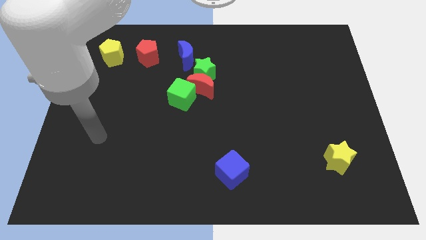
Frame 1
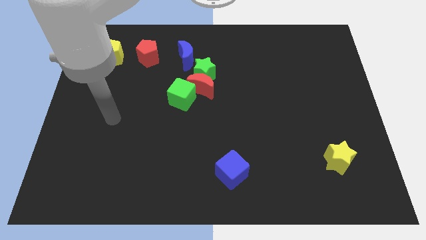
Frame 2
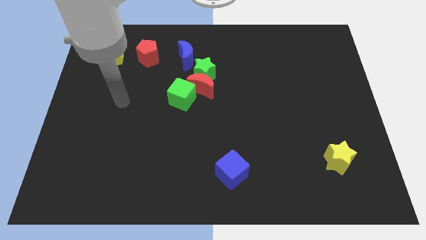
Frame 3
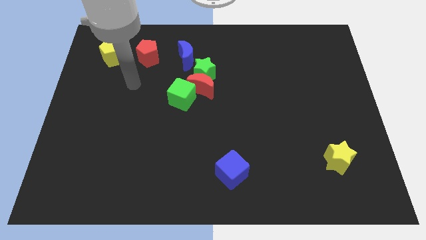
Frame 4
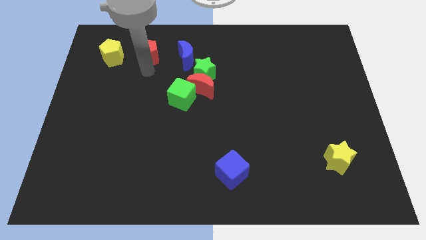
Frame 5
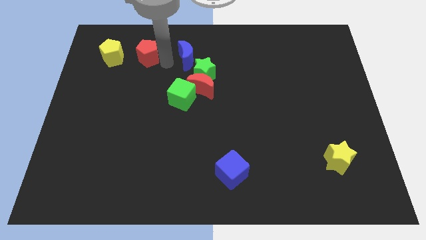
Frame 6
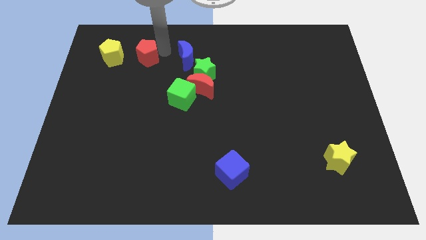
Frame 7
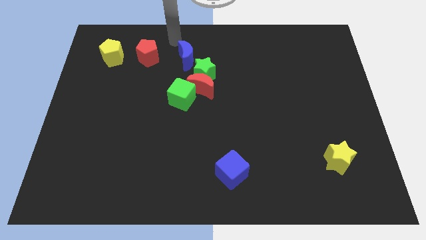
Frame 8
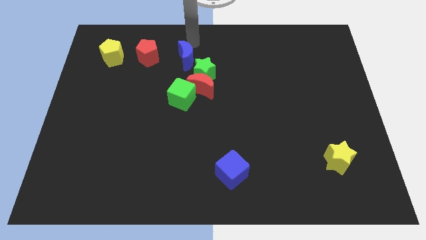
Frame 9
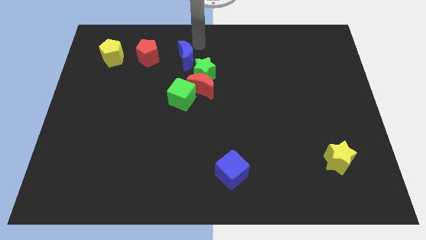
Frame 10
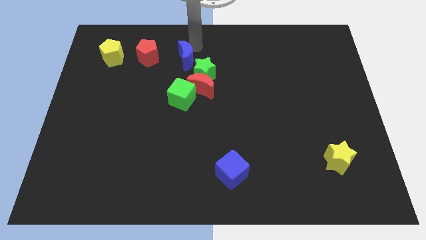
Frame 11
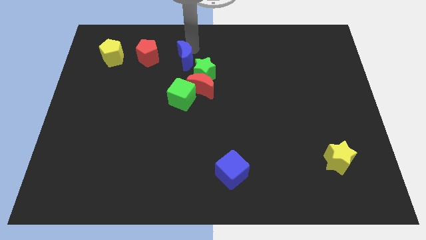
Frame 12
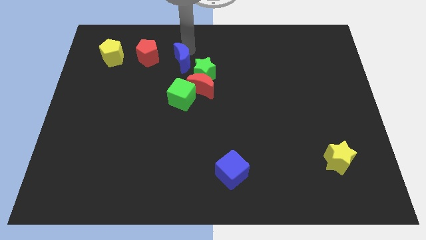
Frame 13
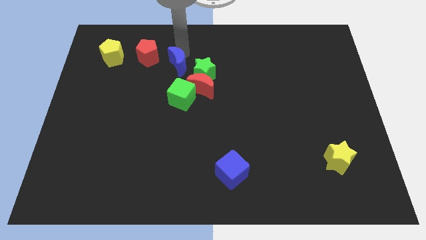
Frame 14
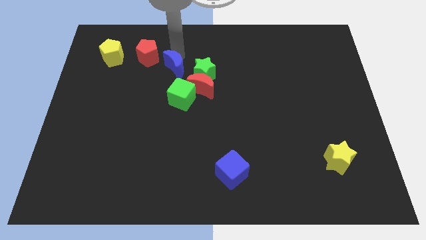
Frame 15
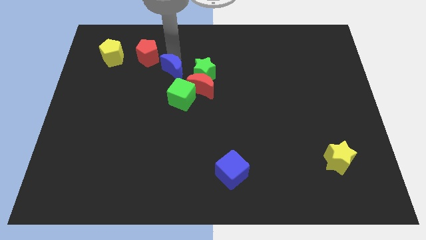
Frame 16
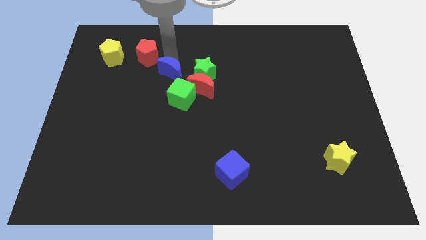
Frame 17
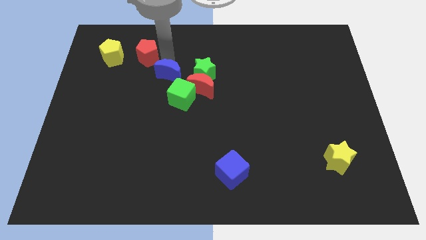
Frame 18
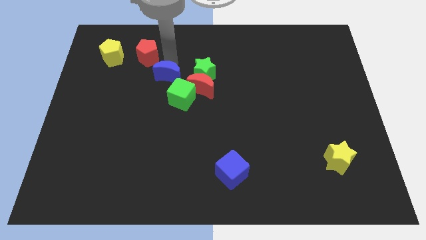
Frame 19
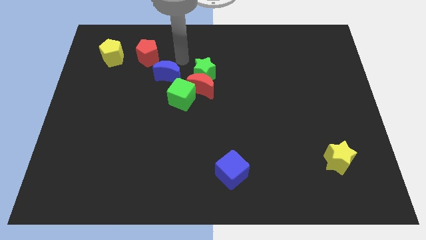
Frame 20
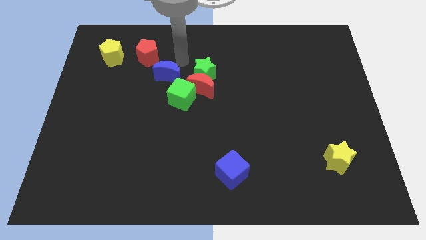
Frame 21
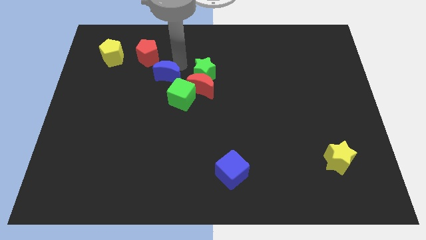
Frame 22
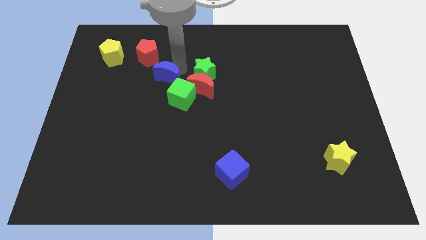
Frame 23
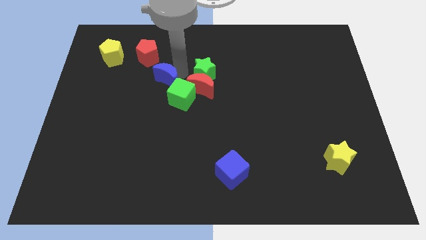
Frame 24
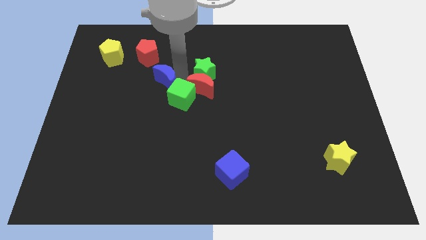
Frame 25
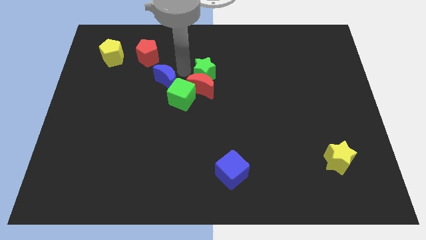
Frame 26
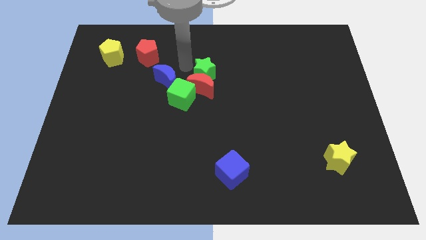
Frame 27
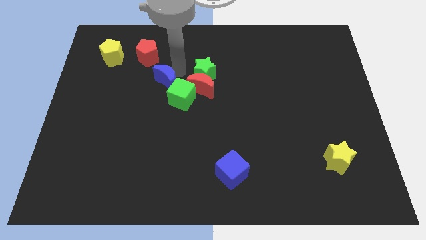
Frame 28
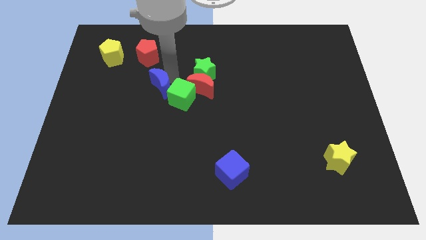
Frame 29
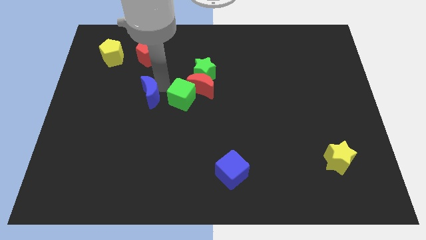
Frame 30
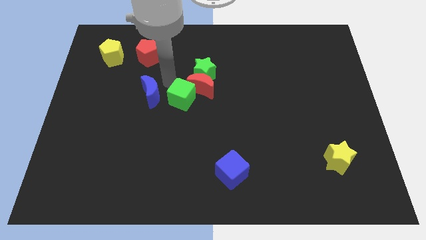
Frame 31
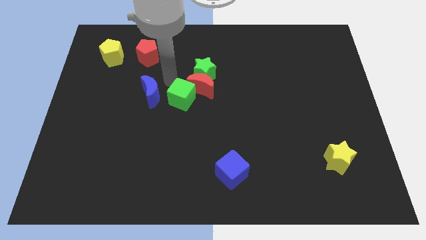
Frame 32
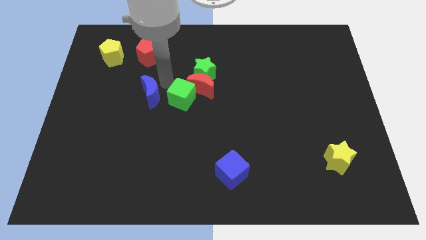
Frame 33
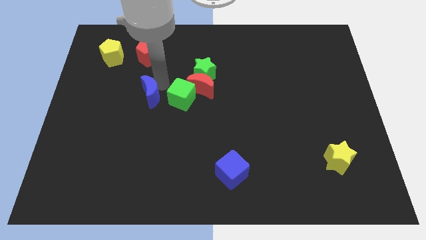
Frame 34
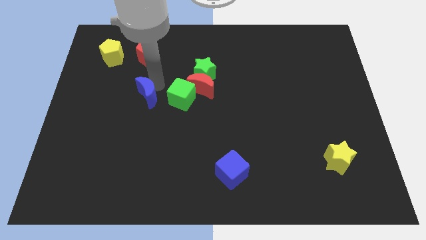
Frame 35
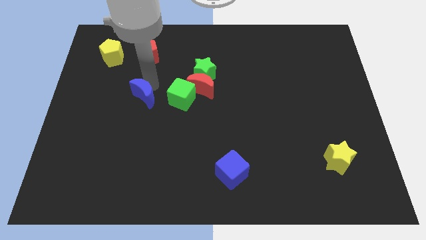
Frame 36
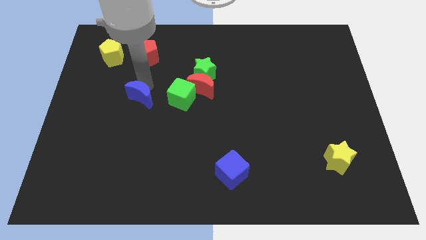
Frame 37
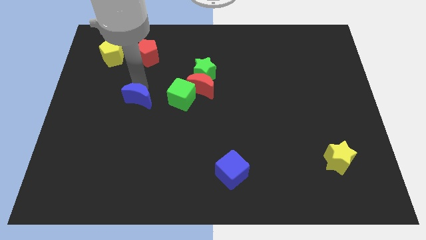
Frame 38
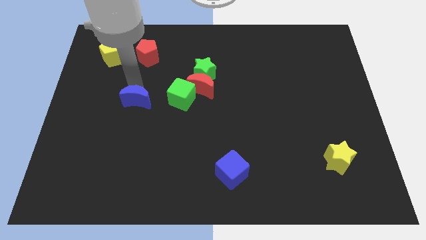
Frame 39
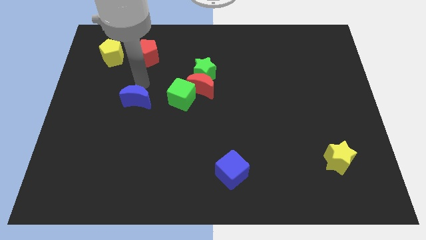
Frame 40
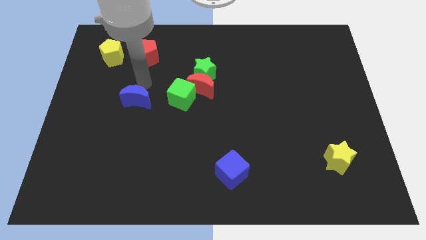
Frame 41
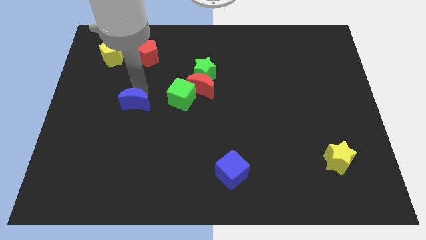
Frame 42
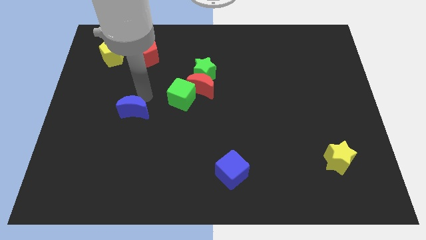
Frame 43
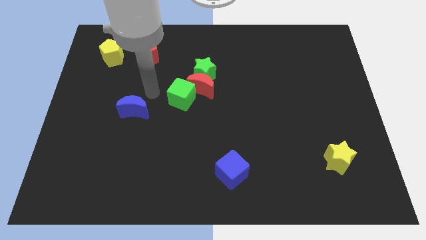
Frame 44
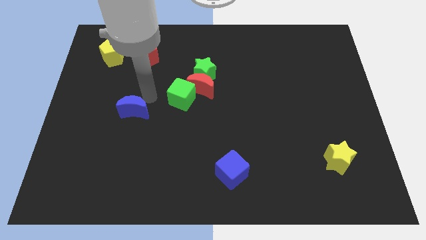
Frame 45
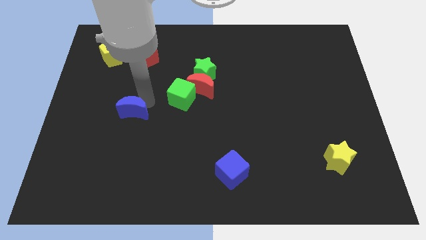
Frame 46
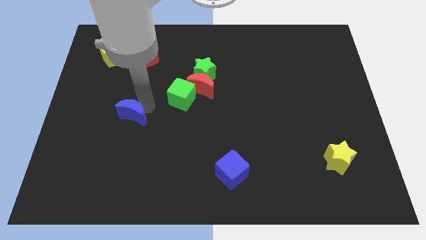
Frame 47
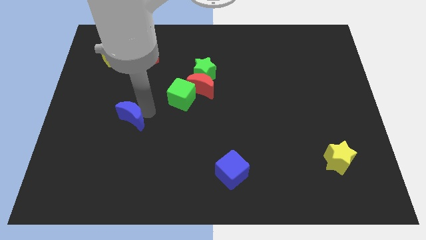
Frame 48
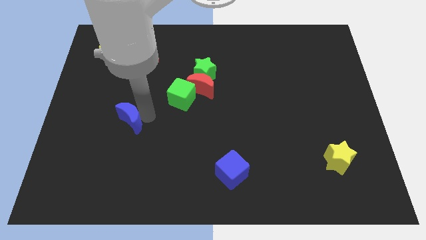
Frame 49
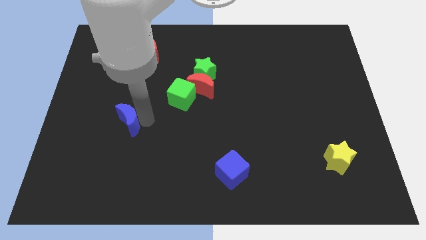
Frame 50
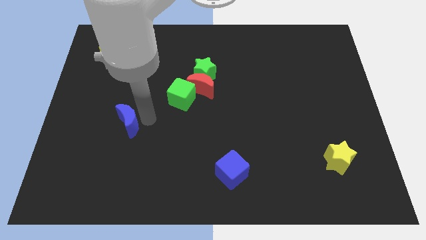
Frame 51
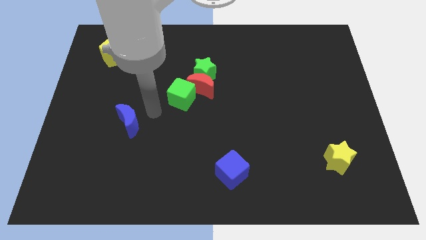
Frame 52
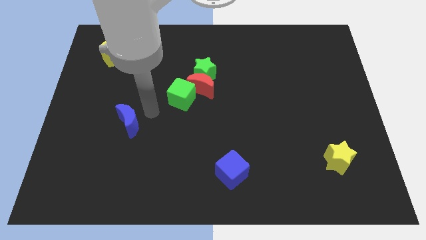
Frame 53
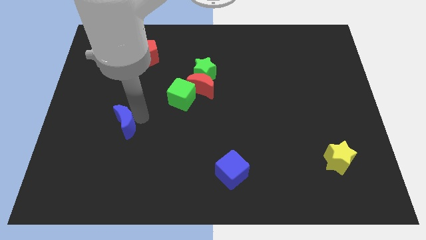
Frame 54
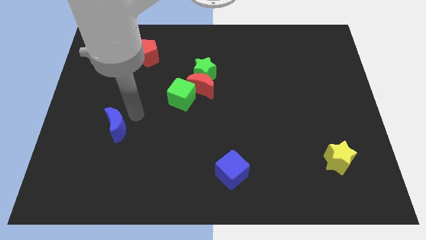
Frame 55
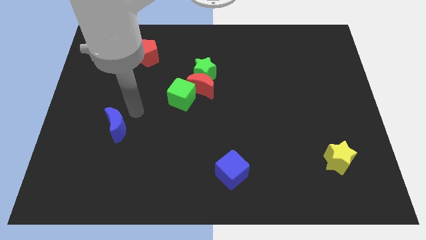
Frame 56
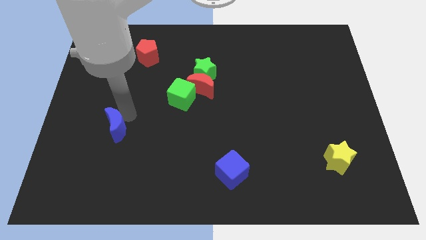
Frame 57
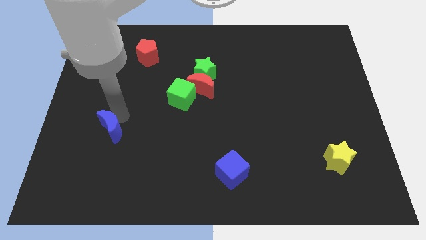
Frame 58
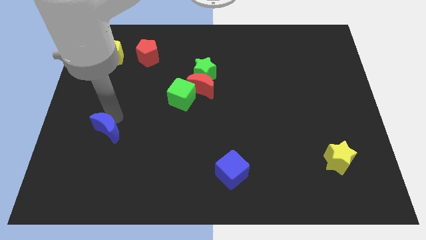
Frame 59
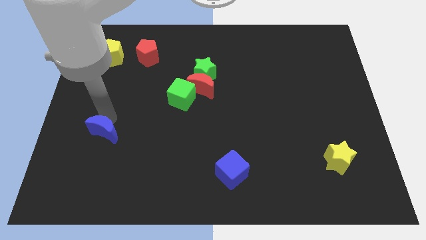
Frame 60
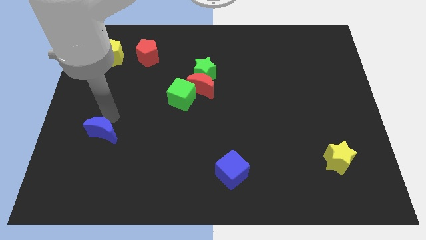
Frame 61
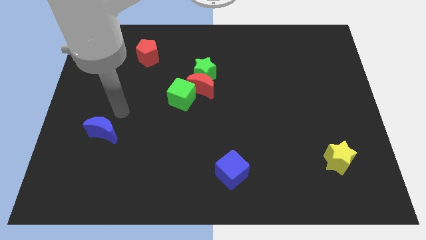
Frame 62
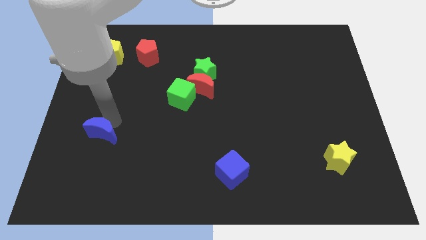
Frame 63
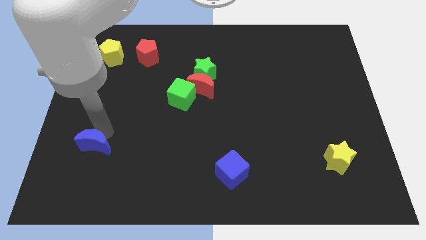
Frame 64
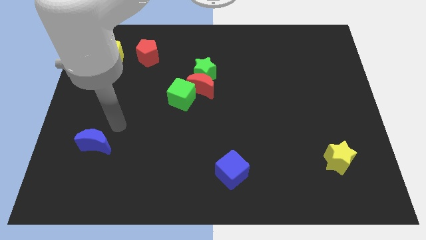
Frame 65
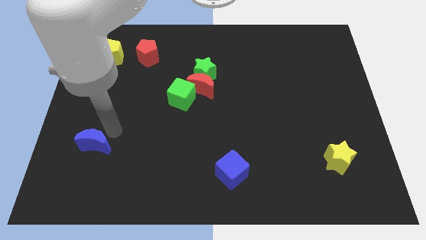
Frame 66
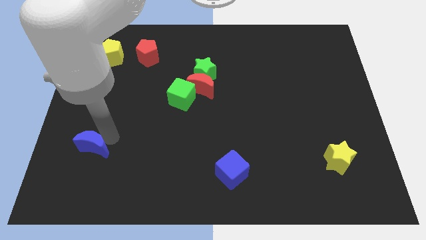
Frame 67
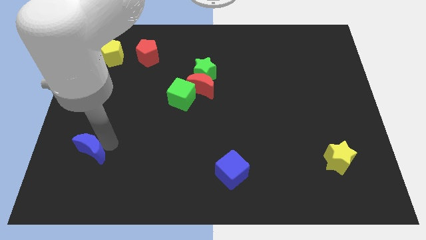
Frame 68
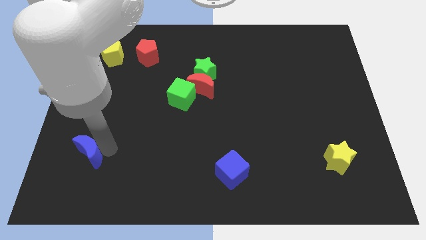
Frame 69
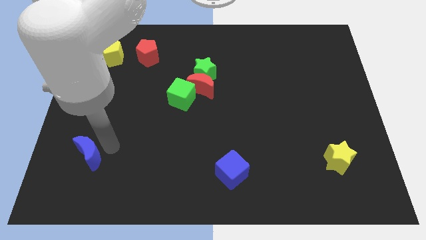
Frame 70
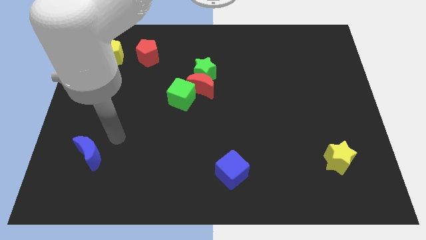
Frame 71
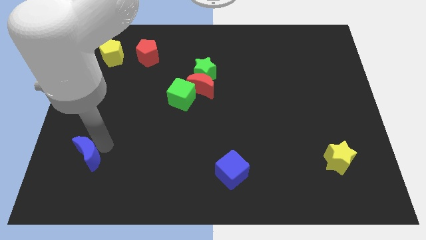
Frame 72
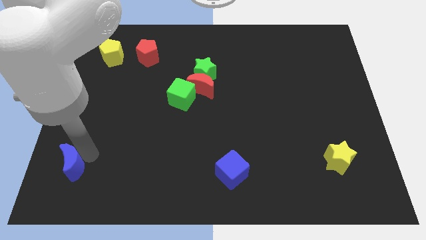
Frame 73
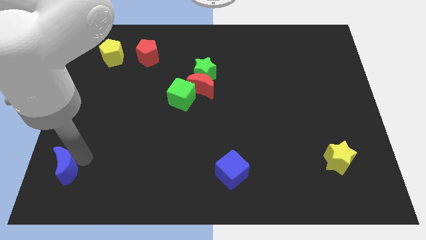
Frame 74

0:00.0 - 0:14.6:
put the blue moon to the bottom left

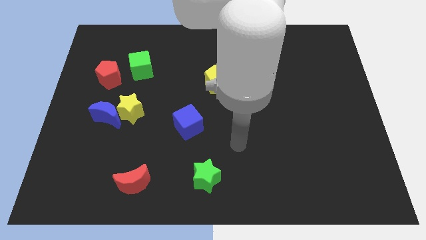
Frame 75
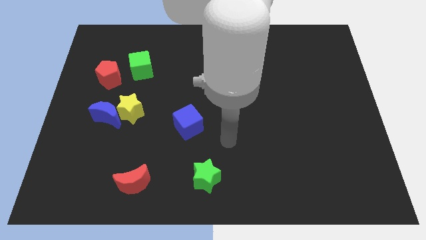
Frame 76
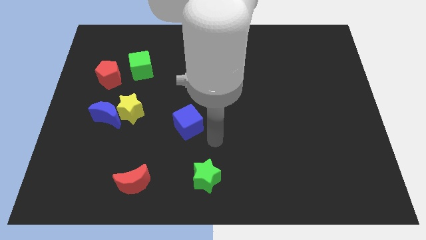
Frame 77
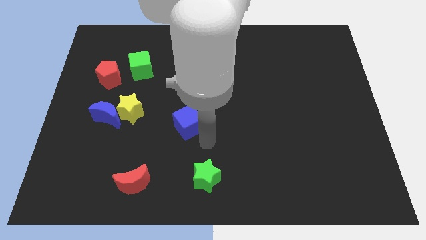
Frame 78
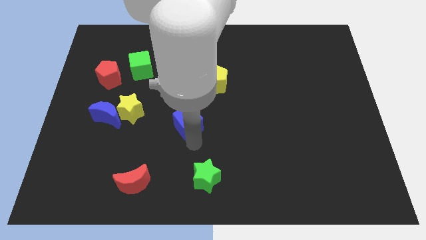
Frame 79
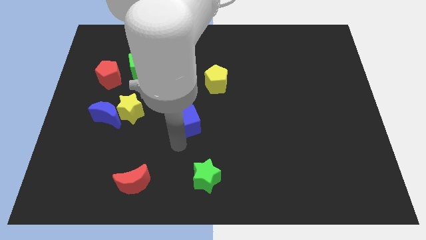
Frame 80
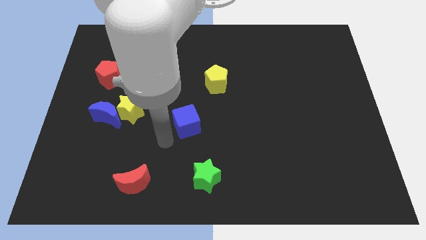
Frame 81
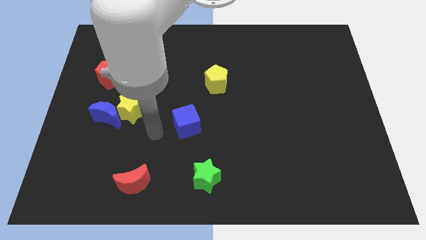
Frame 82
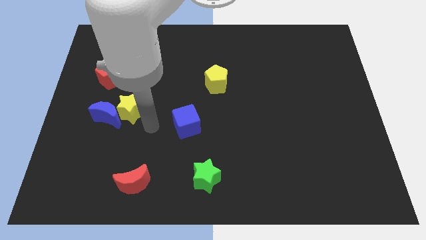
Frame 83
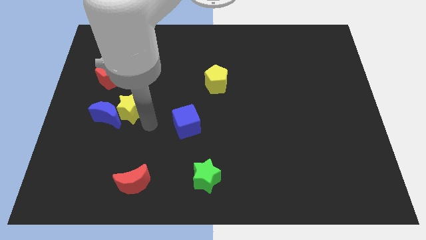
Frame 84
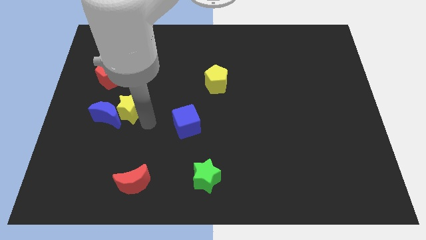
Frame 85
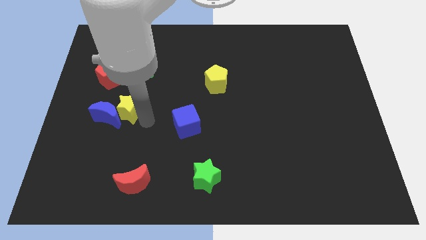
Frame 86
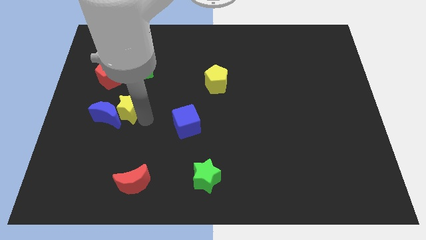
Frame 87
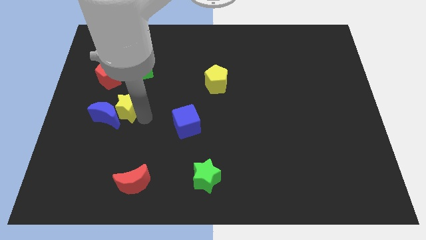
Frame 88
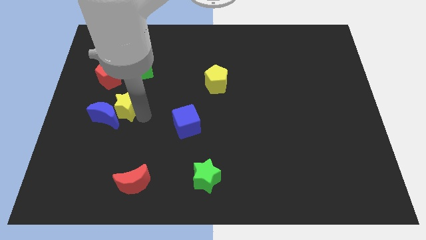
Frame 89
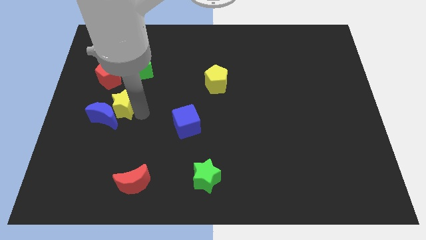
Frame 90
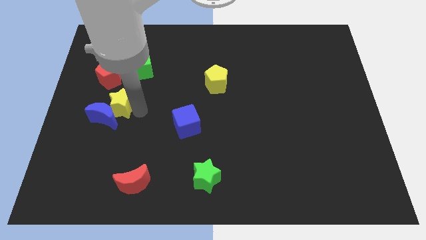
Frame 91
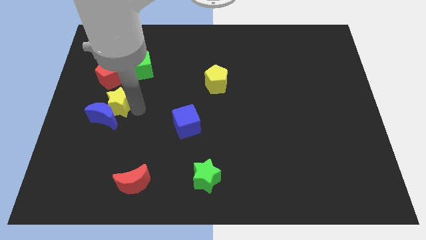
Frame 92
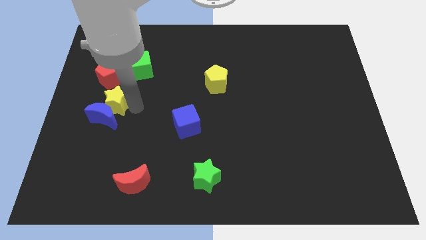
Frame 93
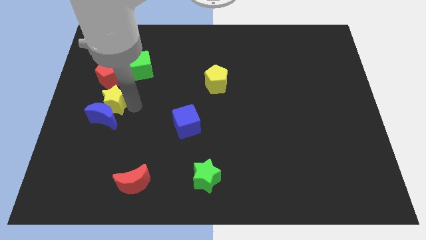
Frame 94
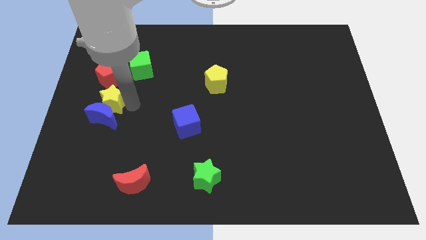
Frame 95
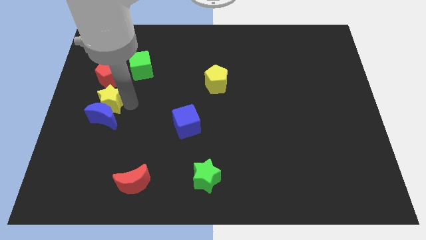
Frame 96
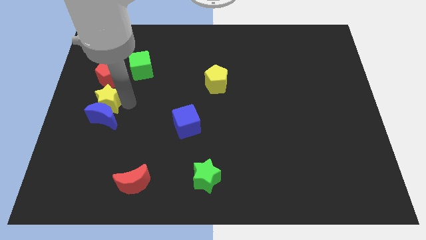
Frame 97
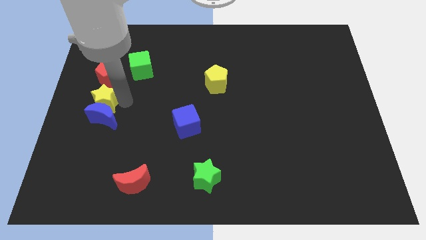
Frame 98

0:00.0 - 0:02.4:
move the yellow star to the left side
